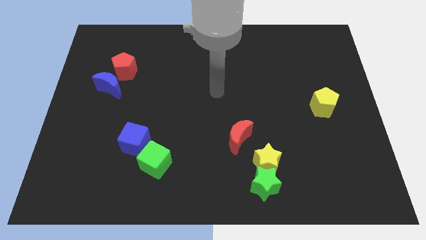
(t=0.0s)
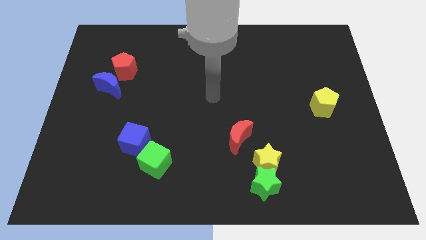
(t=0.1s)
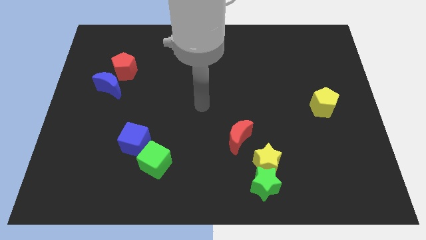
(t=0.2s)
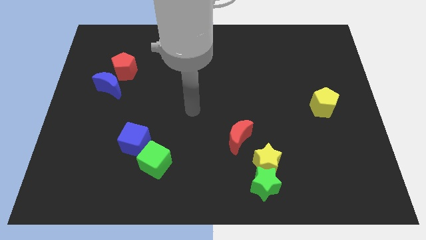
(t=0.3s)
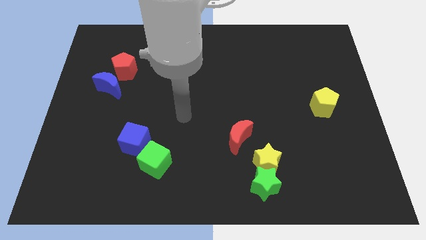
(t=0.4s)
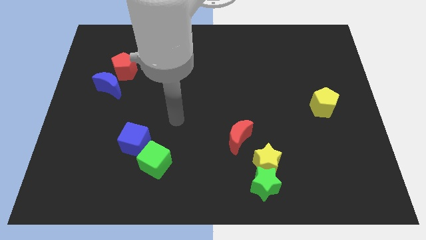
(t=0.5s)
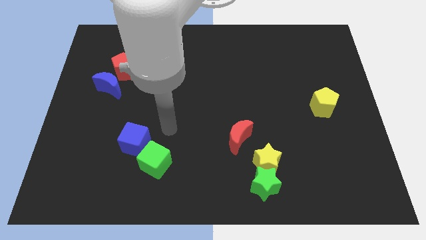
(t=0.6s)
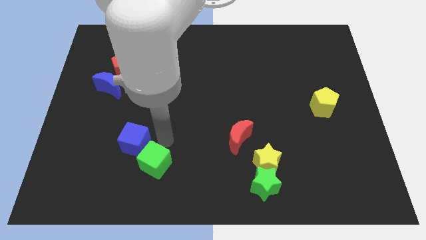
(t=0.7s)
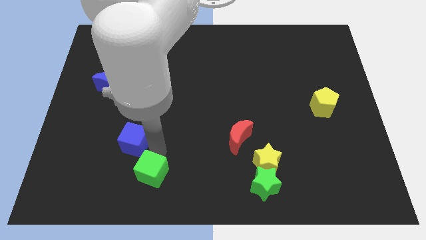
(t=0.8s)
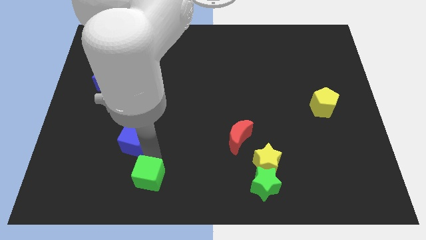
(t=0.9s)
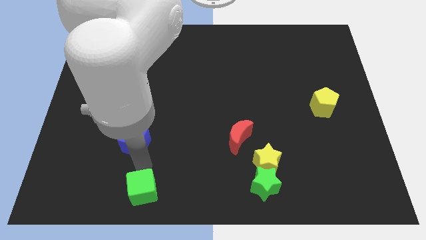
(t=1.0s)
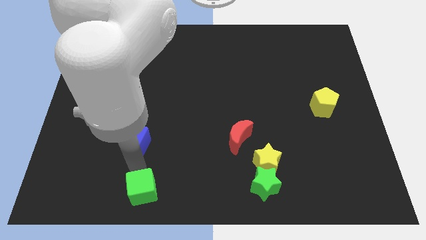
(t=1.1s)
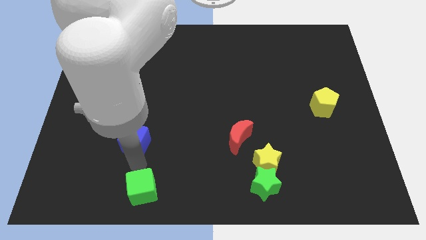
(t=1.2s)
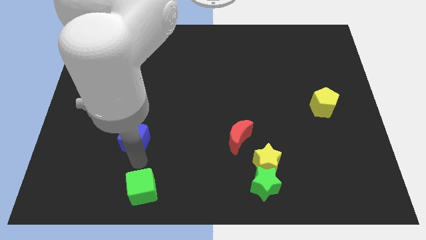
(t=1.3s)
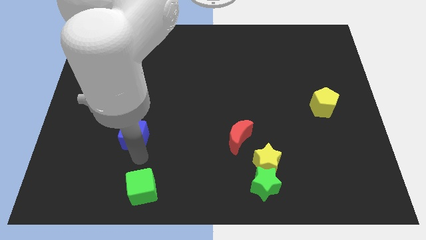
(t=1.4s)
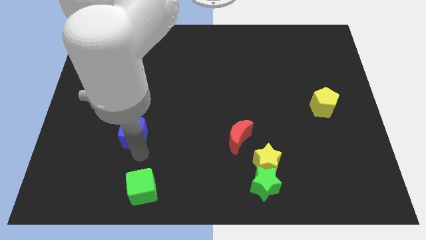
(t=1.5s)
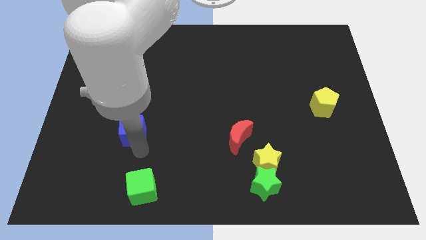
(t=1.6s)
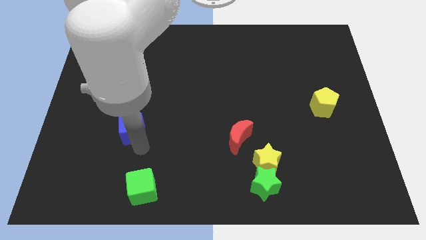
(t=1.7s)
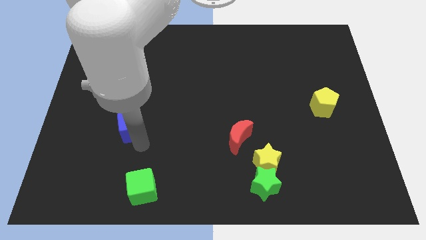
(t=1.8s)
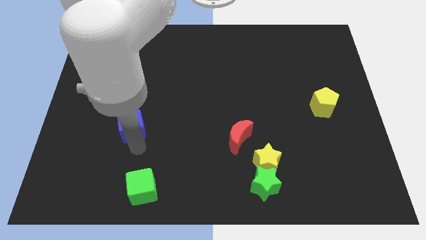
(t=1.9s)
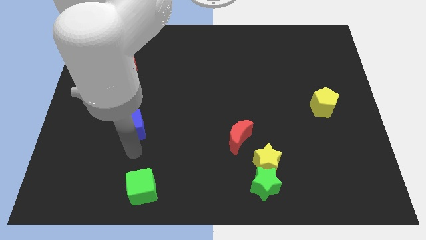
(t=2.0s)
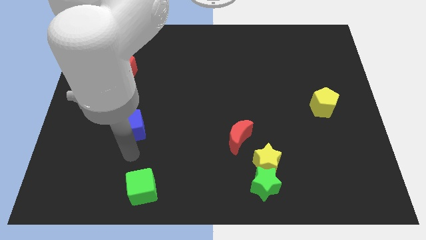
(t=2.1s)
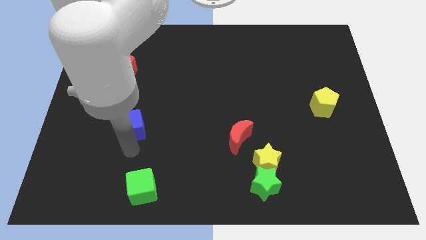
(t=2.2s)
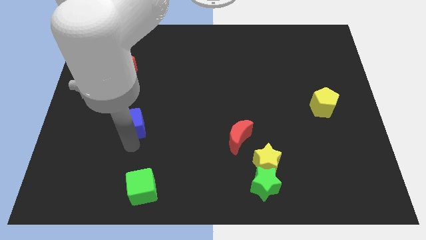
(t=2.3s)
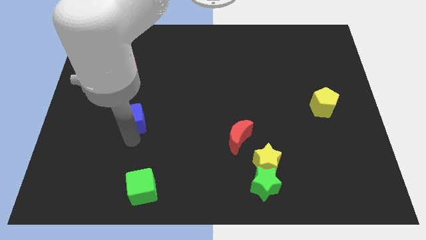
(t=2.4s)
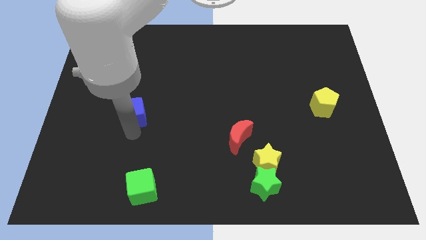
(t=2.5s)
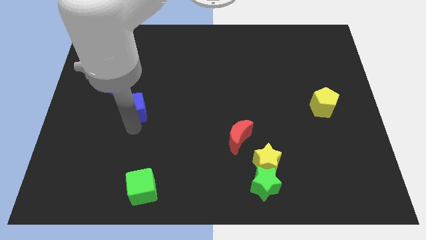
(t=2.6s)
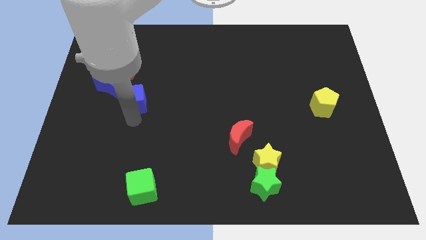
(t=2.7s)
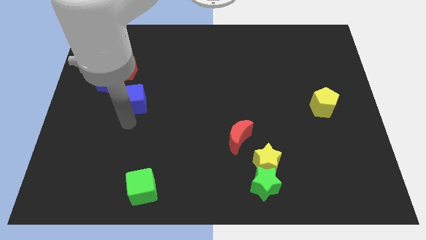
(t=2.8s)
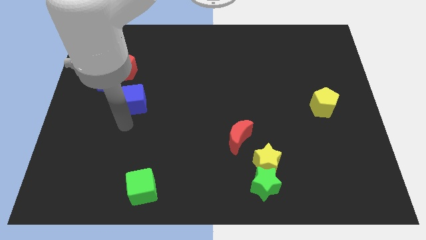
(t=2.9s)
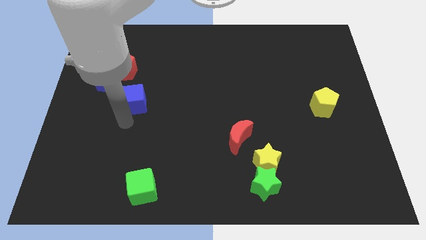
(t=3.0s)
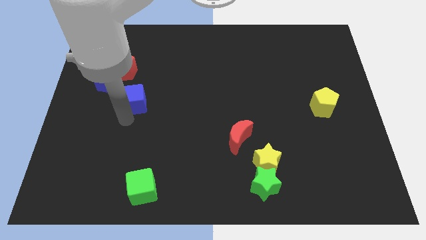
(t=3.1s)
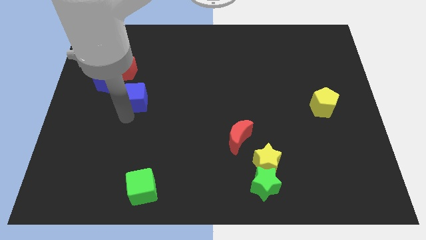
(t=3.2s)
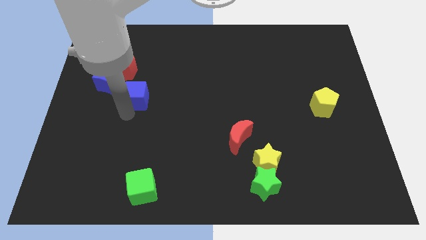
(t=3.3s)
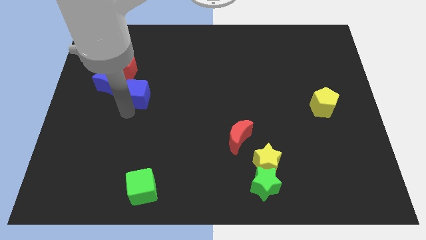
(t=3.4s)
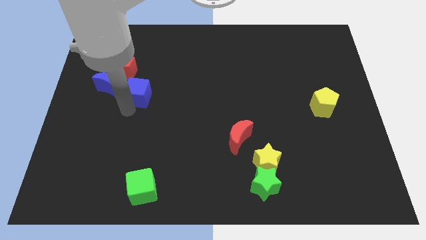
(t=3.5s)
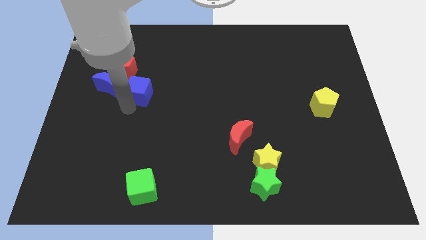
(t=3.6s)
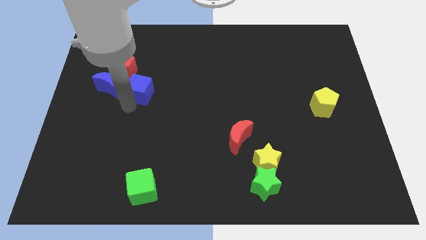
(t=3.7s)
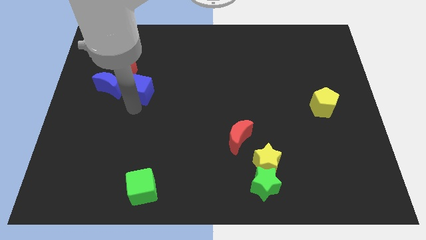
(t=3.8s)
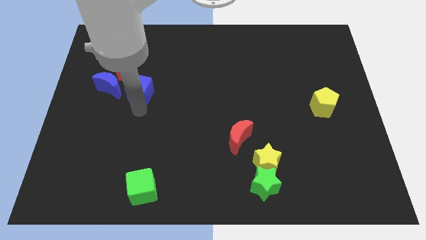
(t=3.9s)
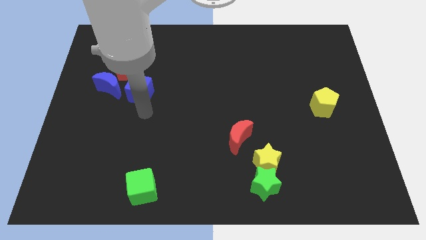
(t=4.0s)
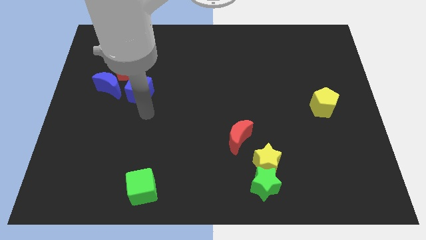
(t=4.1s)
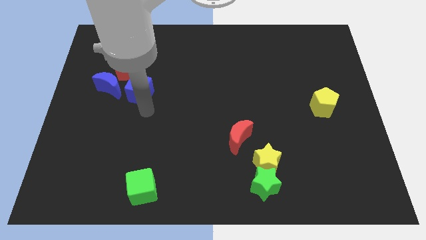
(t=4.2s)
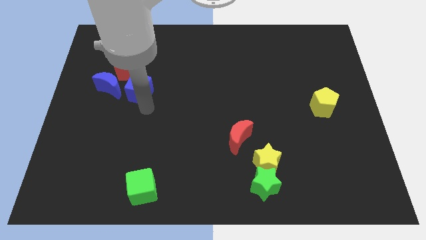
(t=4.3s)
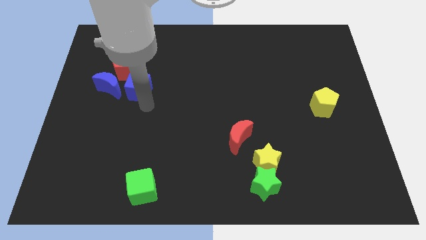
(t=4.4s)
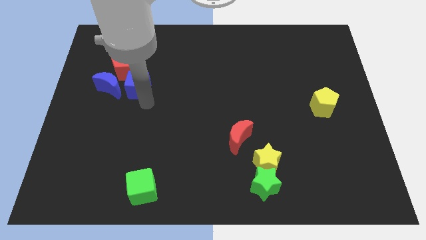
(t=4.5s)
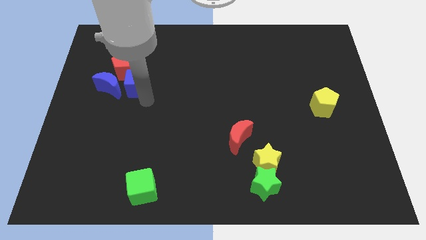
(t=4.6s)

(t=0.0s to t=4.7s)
move the blue cube to the top right of the blue moon

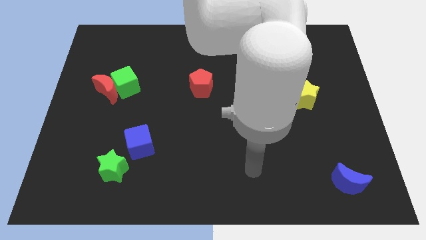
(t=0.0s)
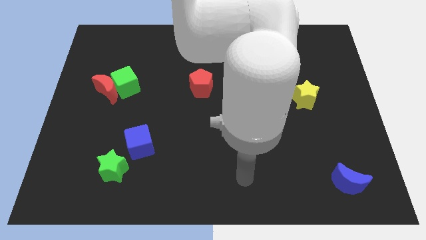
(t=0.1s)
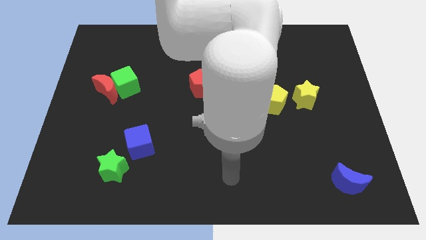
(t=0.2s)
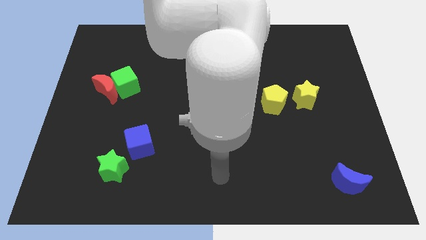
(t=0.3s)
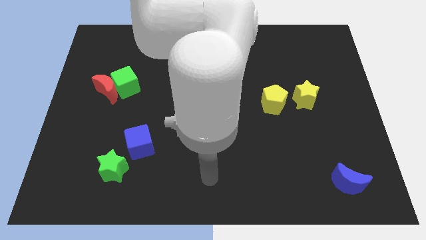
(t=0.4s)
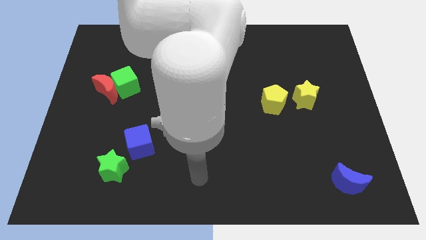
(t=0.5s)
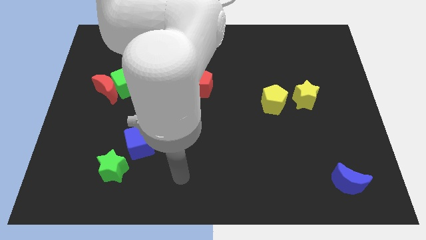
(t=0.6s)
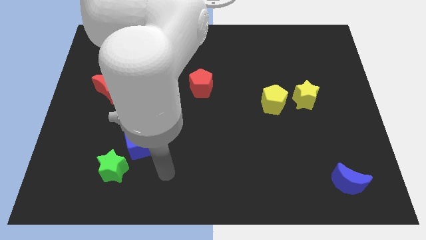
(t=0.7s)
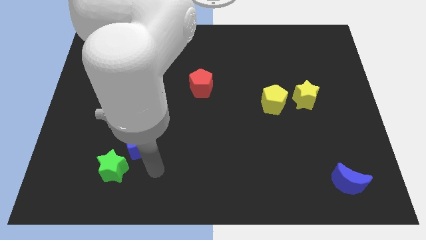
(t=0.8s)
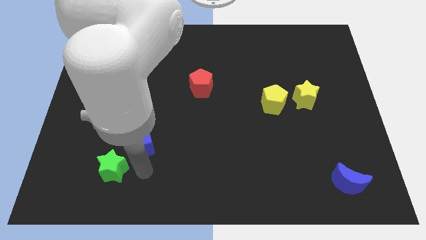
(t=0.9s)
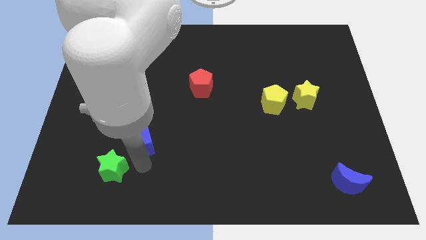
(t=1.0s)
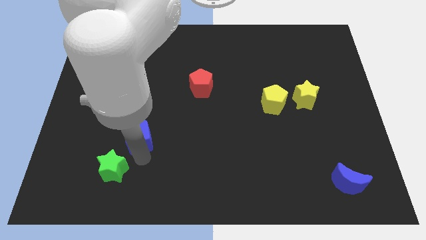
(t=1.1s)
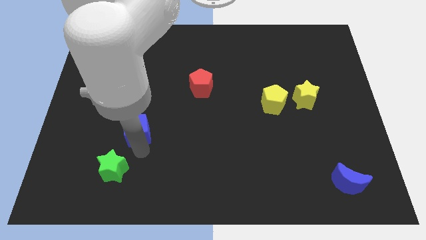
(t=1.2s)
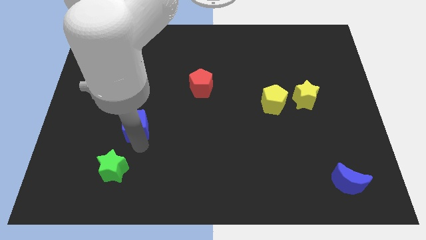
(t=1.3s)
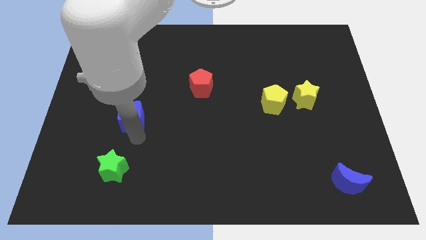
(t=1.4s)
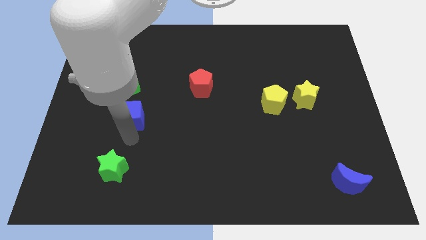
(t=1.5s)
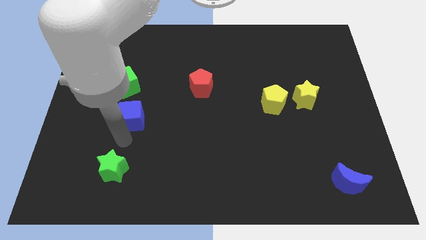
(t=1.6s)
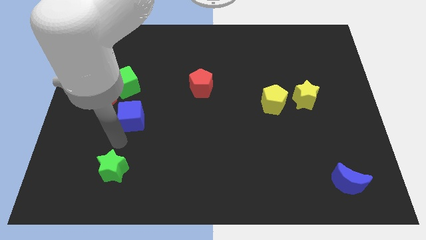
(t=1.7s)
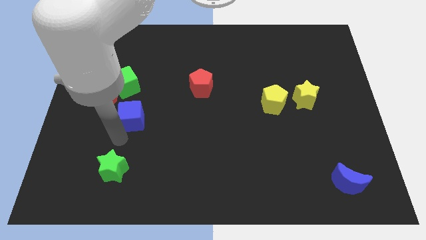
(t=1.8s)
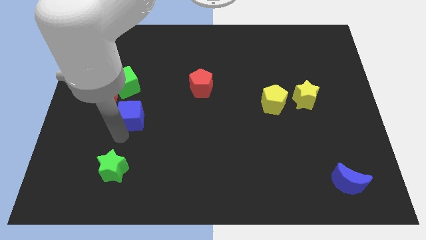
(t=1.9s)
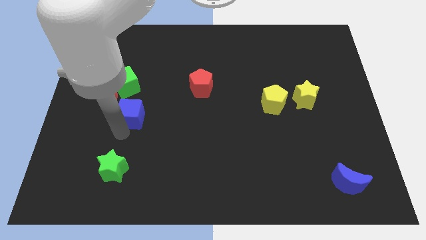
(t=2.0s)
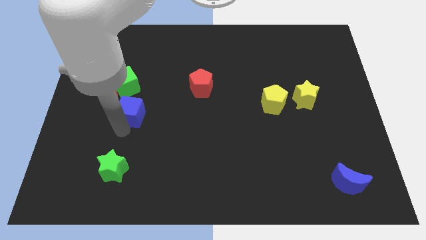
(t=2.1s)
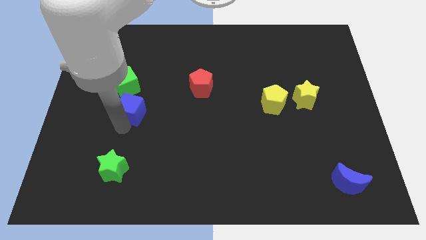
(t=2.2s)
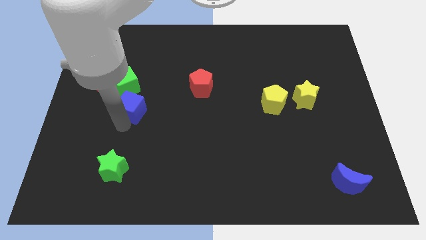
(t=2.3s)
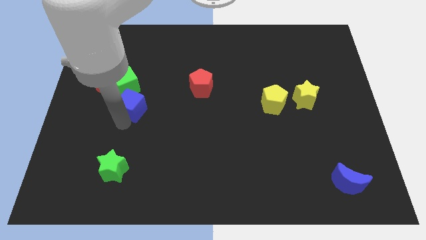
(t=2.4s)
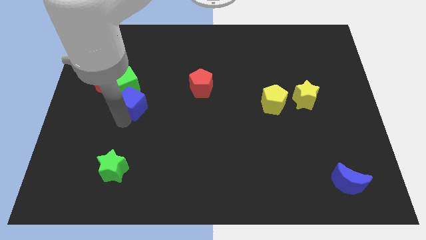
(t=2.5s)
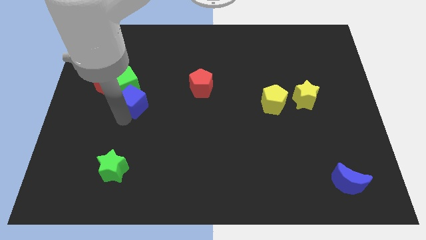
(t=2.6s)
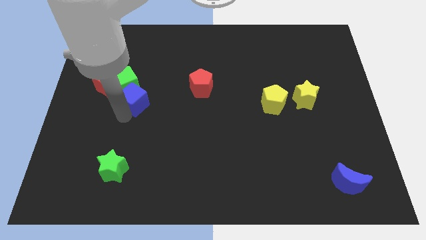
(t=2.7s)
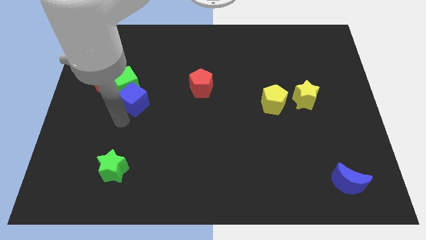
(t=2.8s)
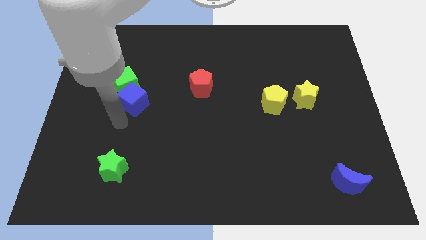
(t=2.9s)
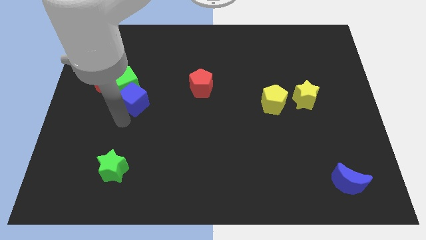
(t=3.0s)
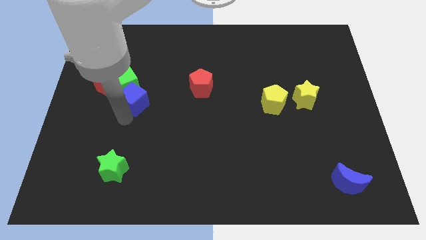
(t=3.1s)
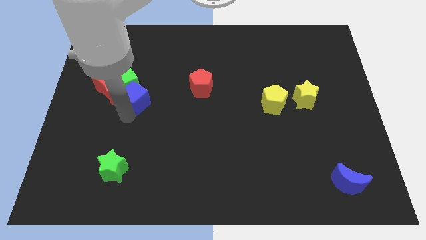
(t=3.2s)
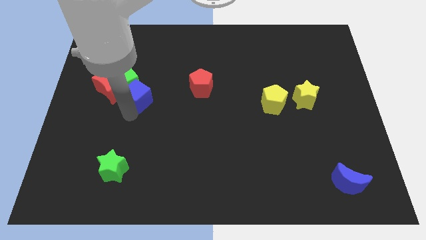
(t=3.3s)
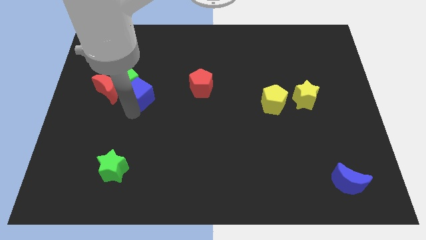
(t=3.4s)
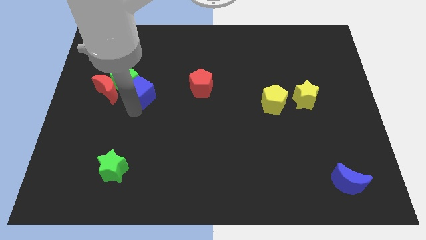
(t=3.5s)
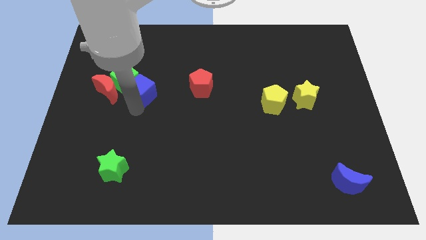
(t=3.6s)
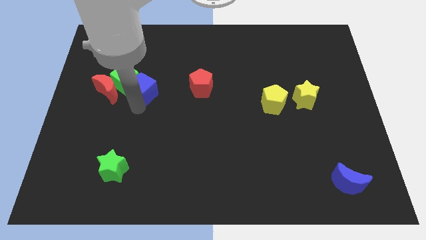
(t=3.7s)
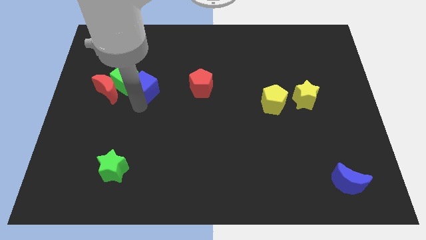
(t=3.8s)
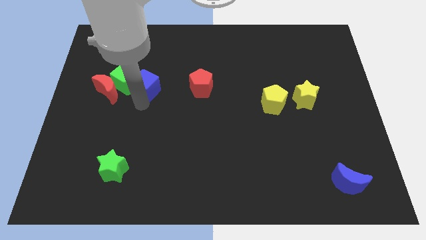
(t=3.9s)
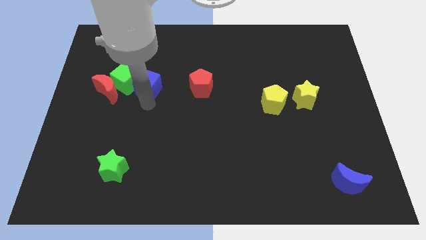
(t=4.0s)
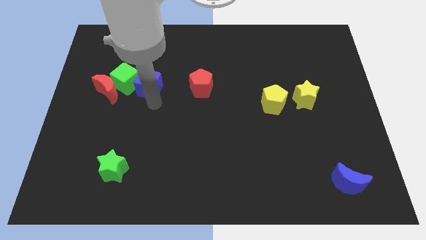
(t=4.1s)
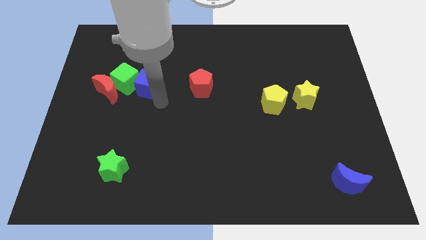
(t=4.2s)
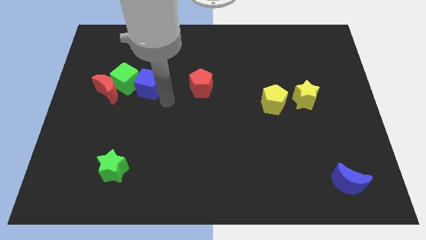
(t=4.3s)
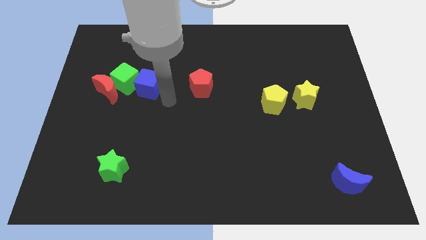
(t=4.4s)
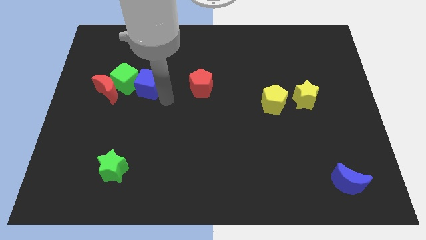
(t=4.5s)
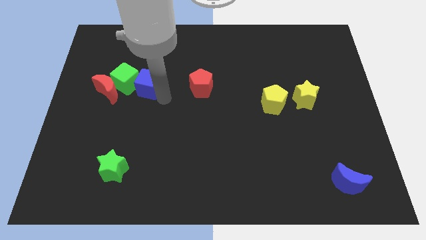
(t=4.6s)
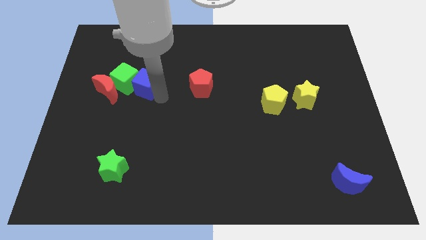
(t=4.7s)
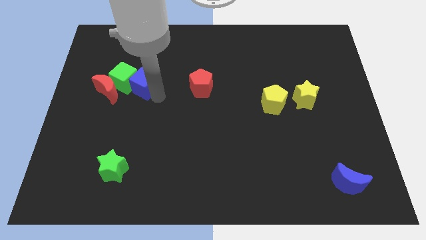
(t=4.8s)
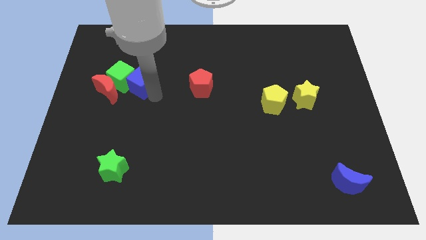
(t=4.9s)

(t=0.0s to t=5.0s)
move the blue cube to the top right side of the red moon
